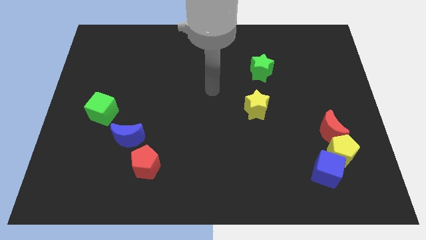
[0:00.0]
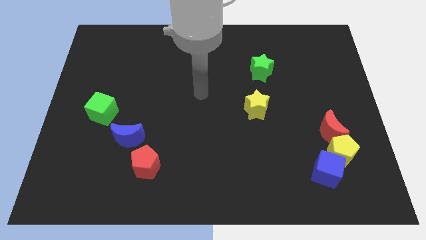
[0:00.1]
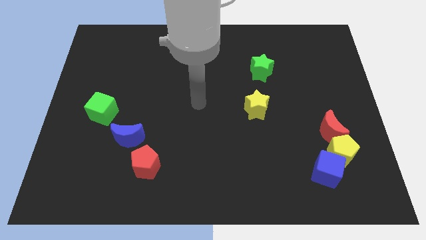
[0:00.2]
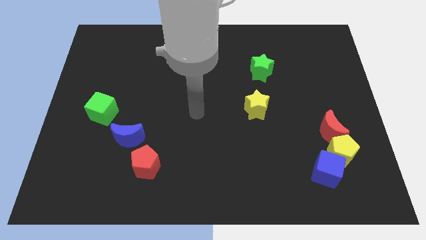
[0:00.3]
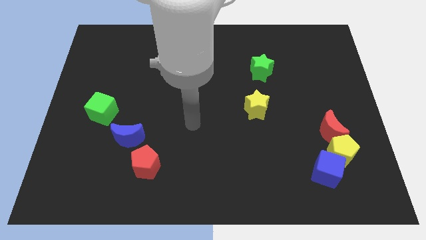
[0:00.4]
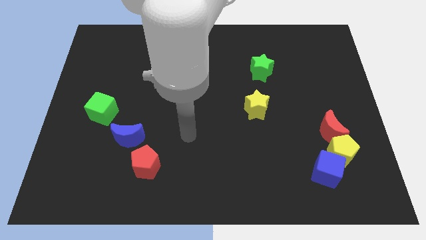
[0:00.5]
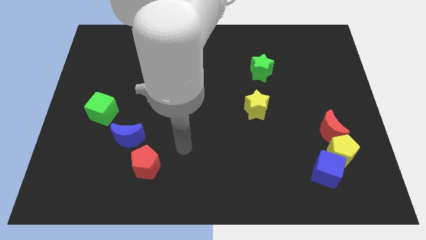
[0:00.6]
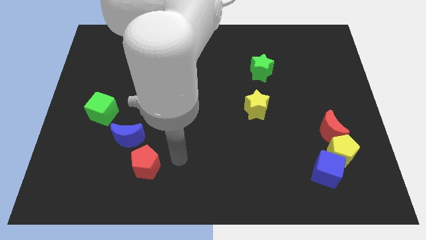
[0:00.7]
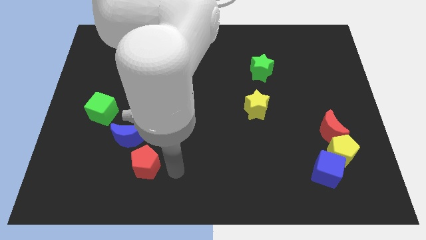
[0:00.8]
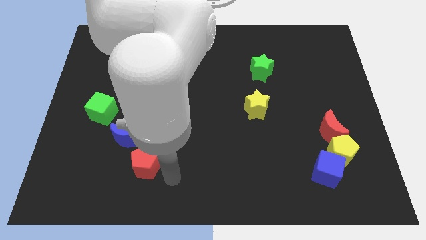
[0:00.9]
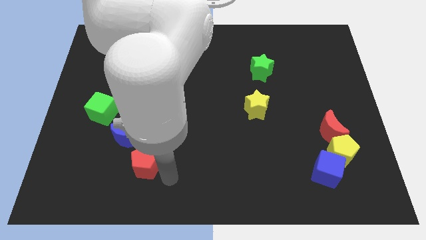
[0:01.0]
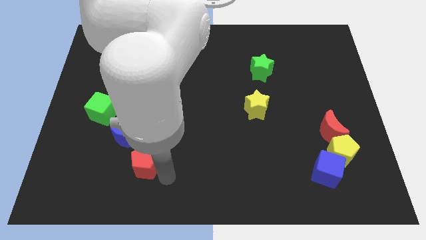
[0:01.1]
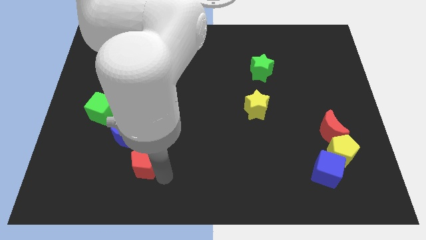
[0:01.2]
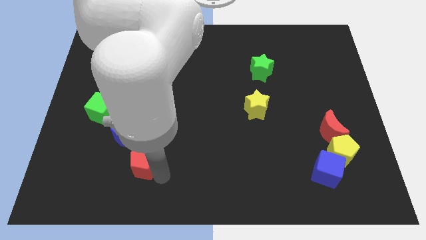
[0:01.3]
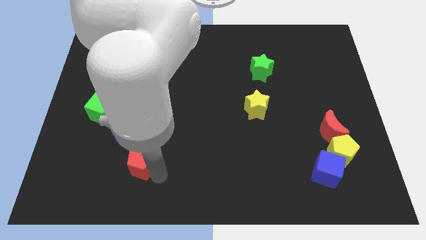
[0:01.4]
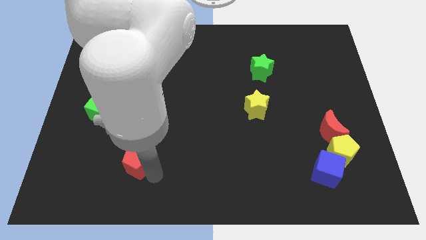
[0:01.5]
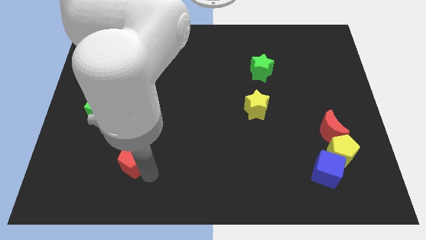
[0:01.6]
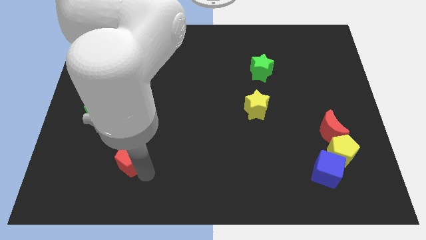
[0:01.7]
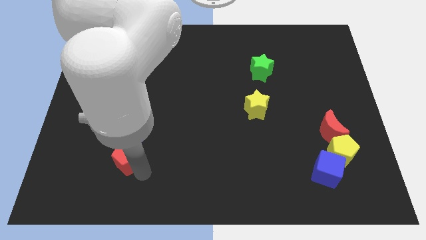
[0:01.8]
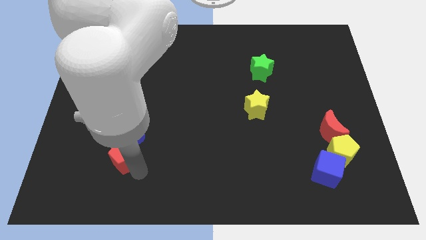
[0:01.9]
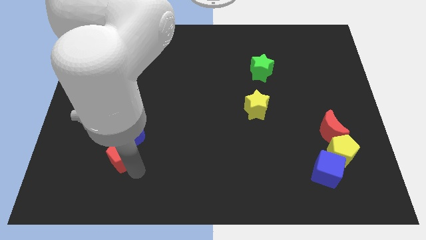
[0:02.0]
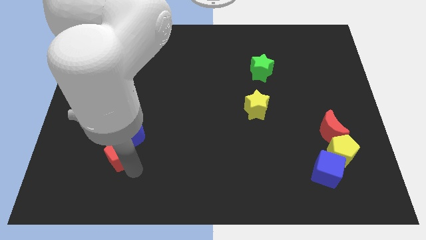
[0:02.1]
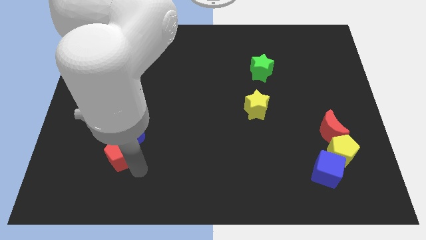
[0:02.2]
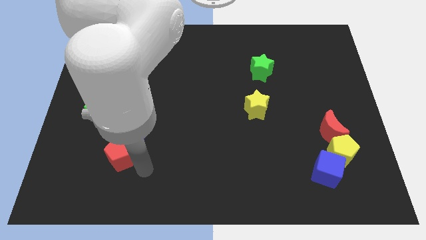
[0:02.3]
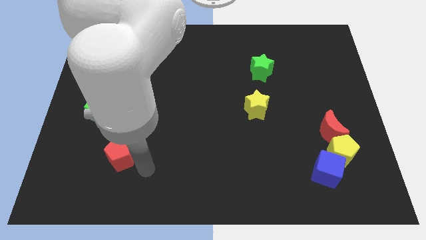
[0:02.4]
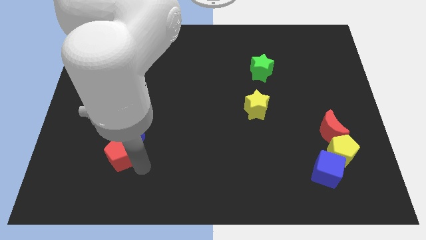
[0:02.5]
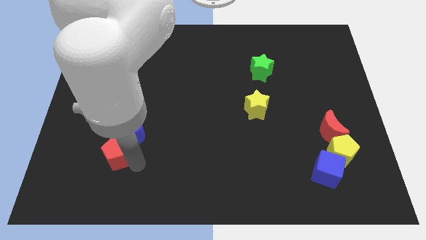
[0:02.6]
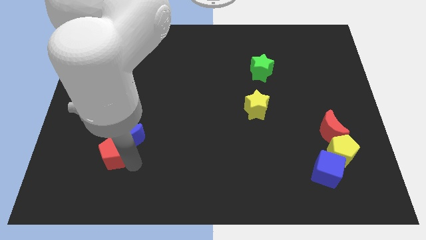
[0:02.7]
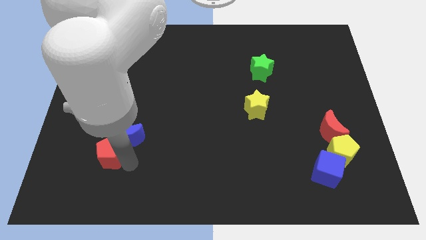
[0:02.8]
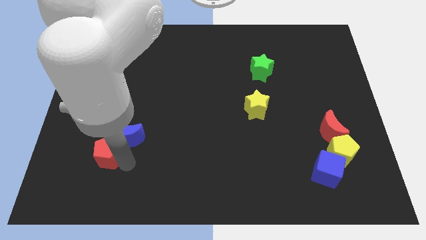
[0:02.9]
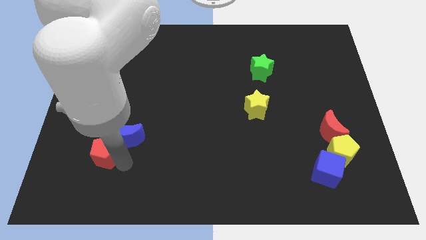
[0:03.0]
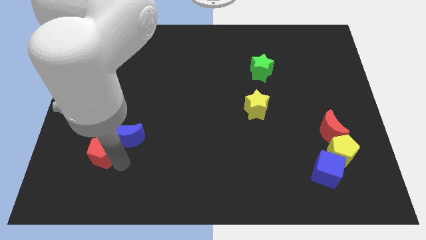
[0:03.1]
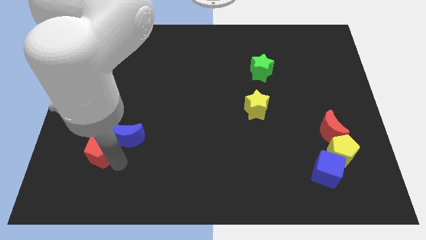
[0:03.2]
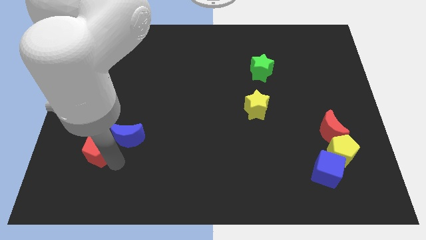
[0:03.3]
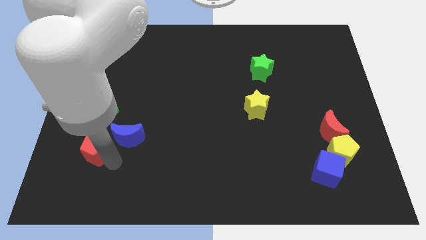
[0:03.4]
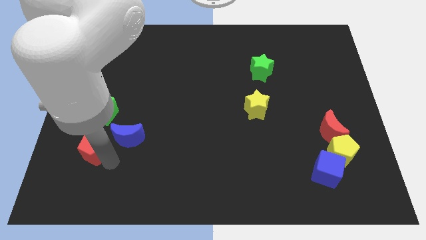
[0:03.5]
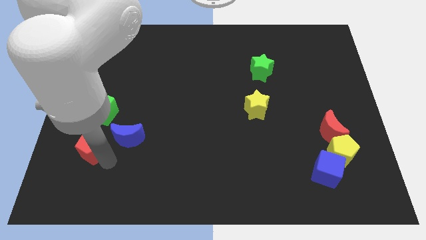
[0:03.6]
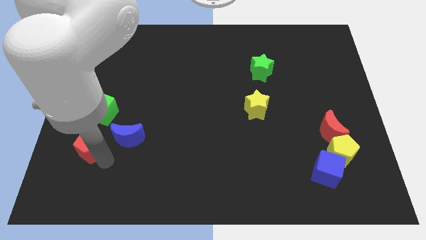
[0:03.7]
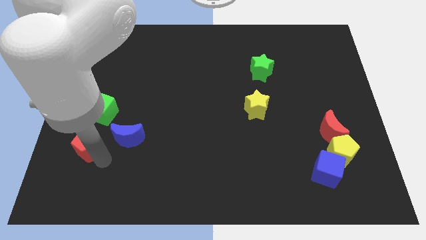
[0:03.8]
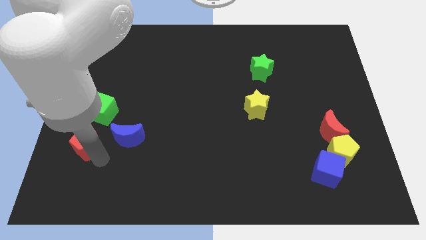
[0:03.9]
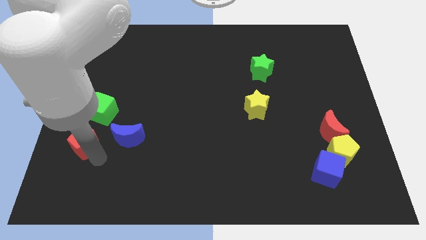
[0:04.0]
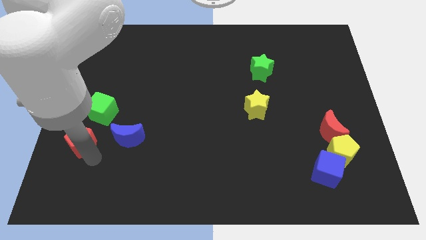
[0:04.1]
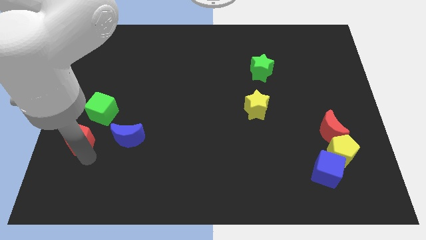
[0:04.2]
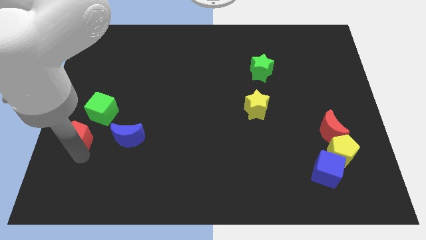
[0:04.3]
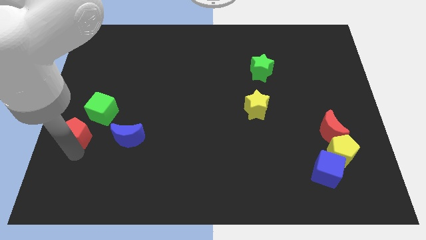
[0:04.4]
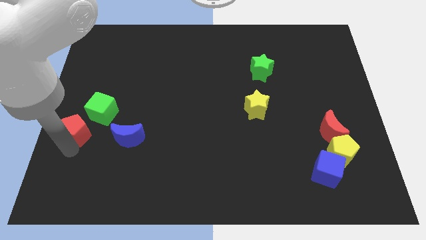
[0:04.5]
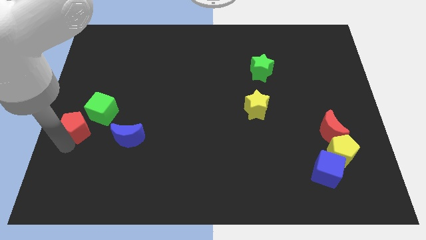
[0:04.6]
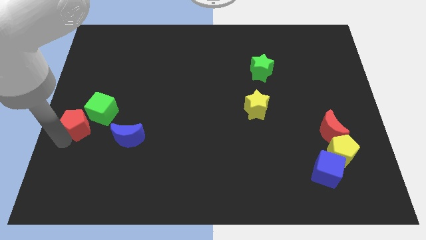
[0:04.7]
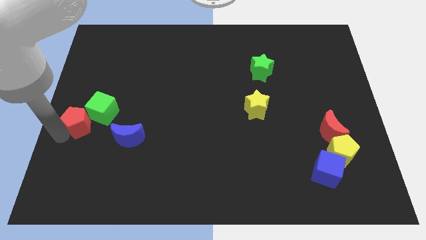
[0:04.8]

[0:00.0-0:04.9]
slide the red pentagon close to the green cube

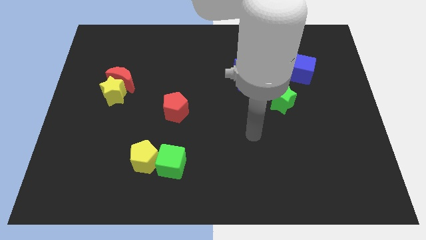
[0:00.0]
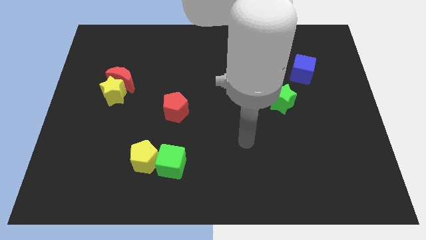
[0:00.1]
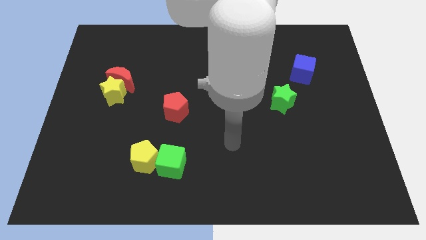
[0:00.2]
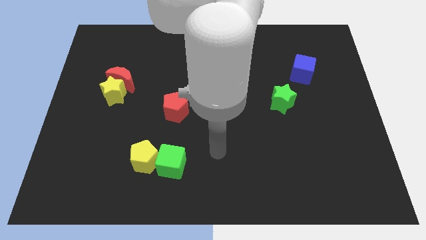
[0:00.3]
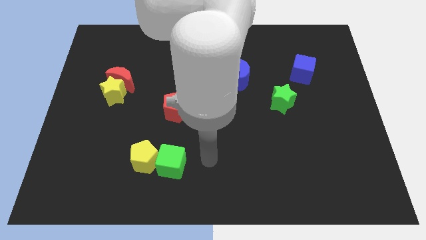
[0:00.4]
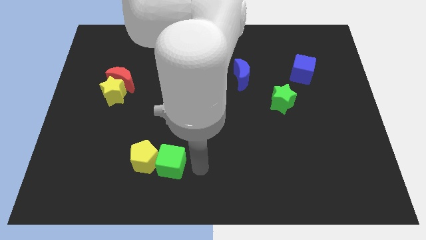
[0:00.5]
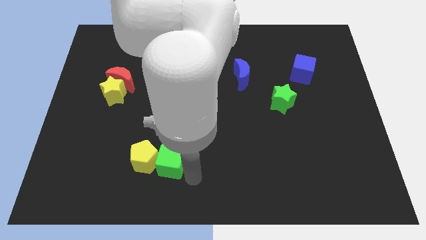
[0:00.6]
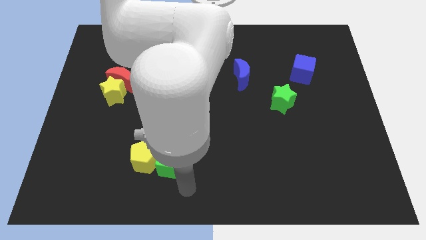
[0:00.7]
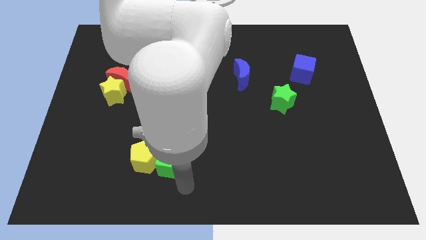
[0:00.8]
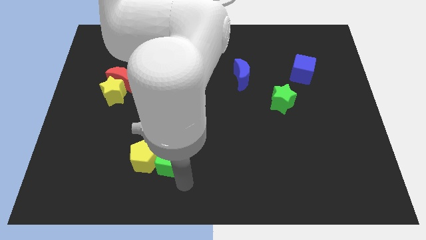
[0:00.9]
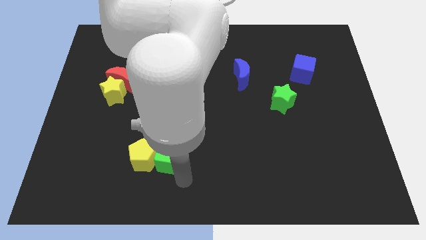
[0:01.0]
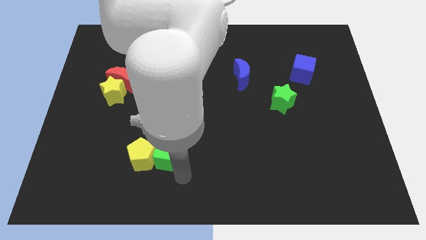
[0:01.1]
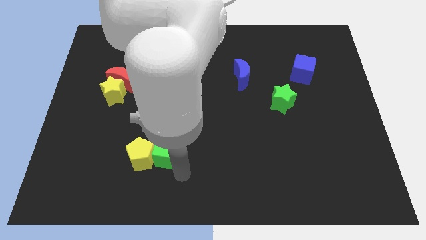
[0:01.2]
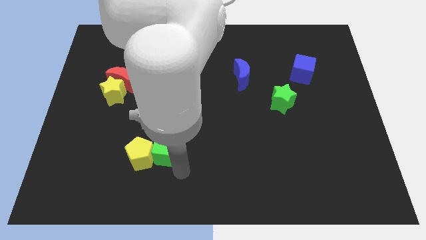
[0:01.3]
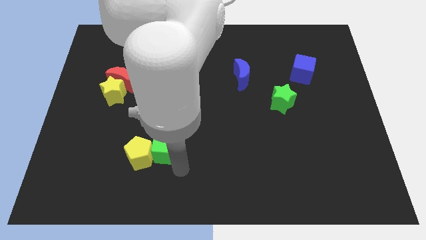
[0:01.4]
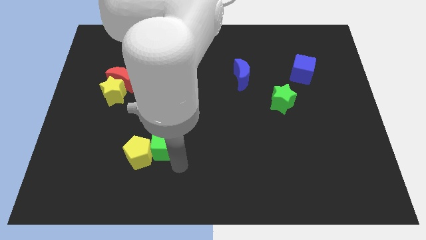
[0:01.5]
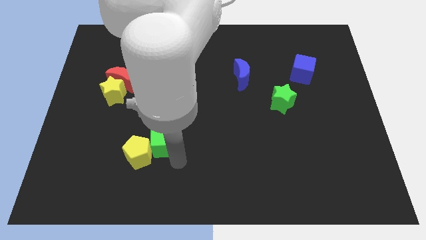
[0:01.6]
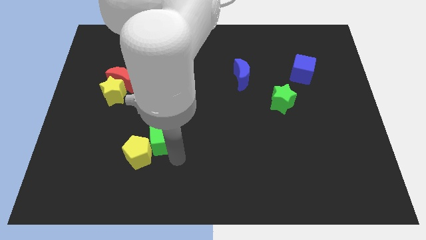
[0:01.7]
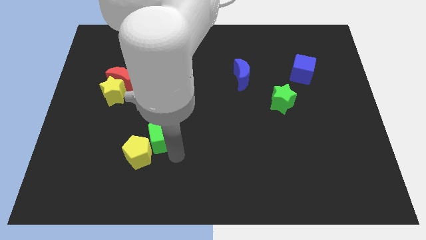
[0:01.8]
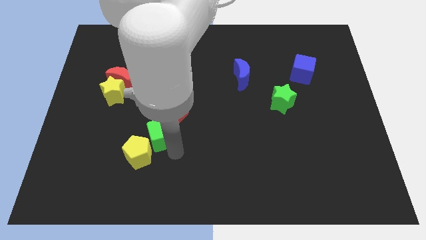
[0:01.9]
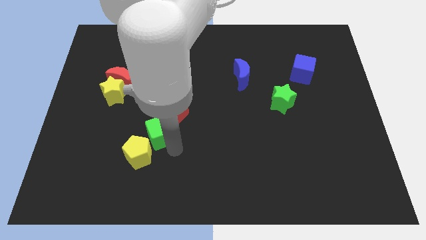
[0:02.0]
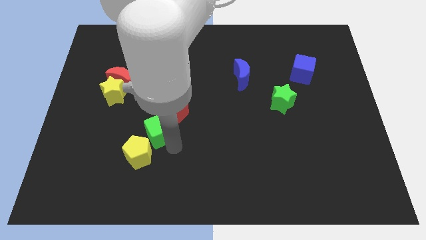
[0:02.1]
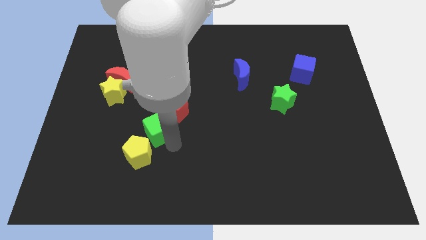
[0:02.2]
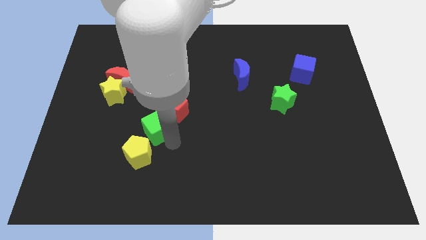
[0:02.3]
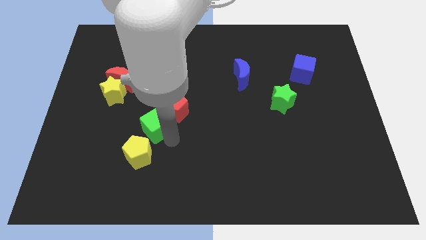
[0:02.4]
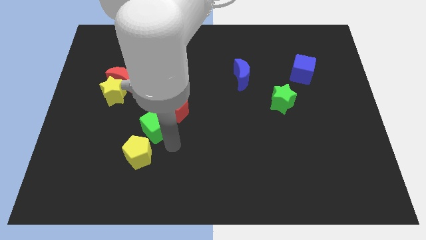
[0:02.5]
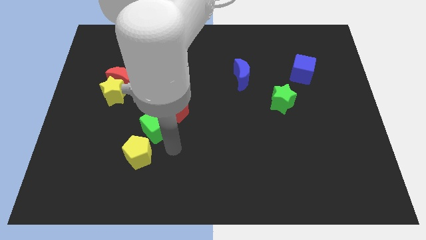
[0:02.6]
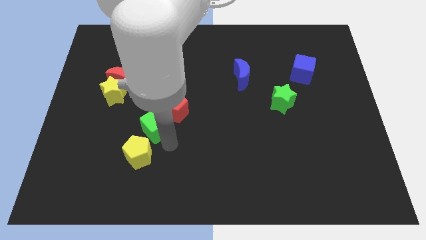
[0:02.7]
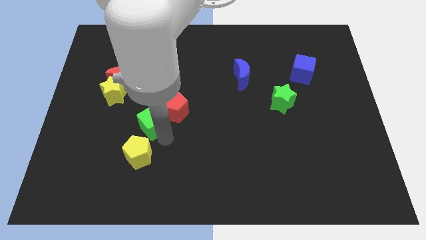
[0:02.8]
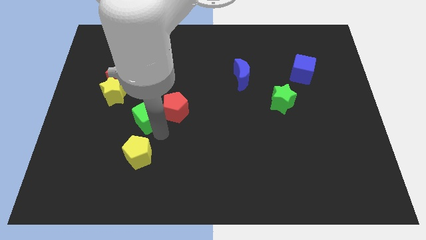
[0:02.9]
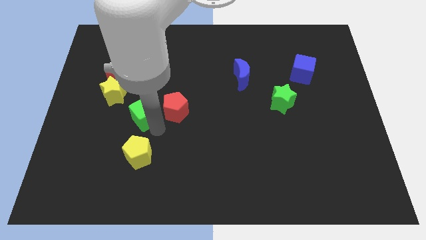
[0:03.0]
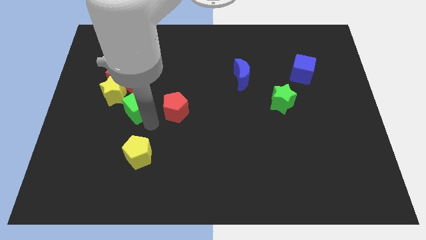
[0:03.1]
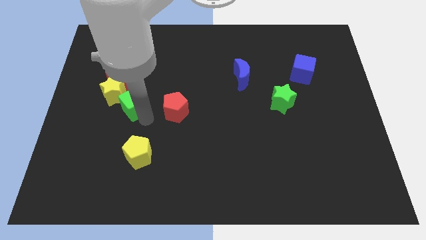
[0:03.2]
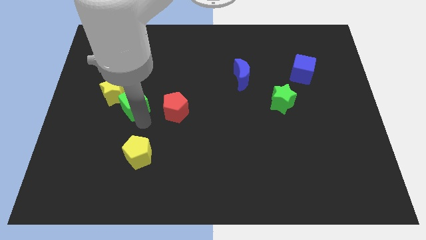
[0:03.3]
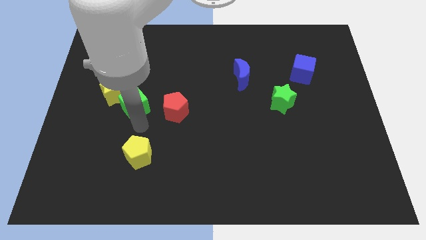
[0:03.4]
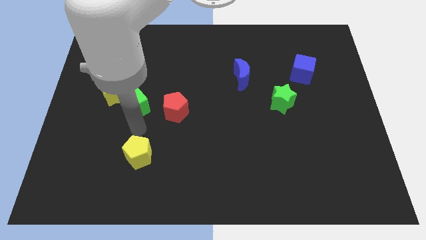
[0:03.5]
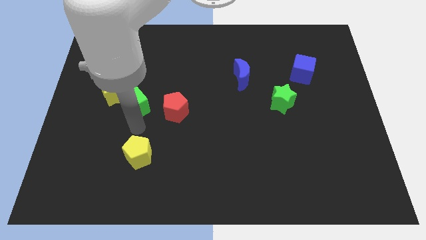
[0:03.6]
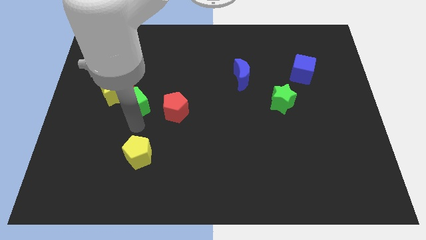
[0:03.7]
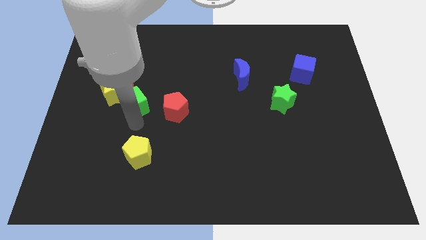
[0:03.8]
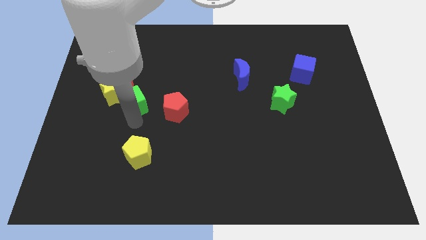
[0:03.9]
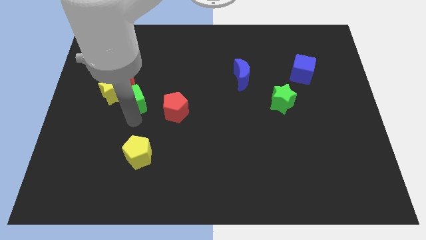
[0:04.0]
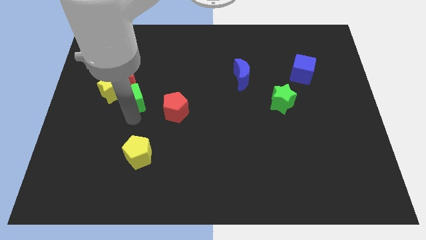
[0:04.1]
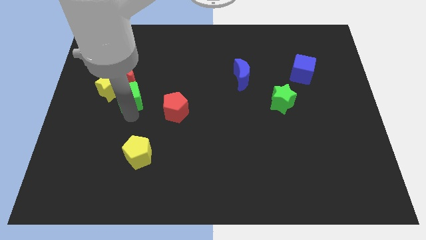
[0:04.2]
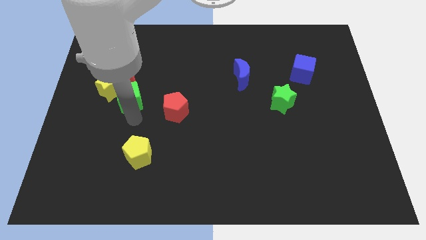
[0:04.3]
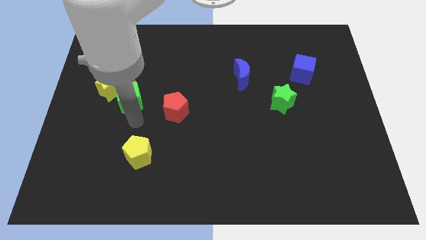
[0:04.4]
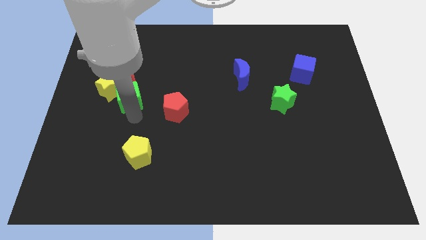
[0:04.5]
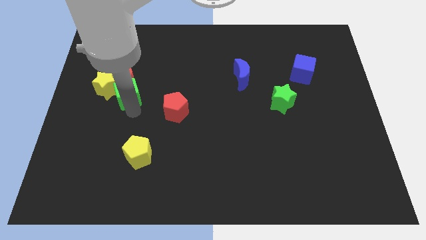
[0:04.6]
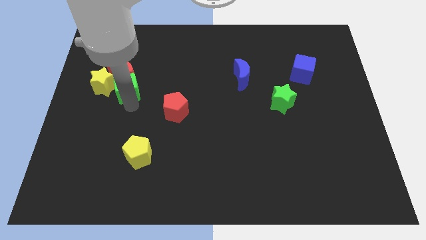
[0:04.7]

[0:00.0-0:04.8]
slide the green cube next to the red moon
